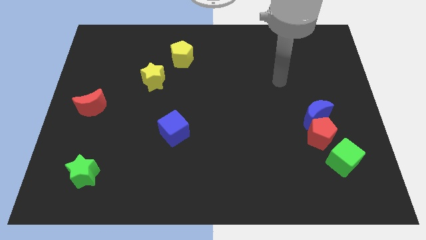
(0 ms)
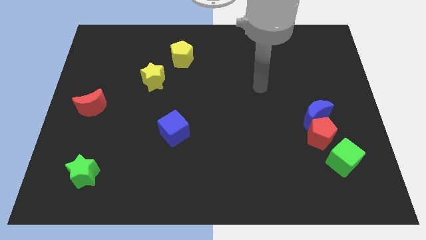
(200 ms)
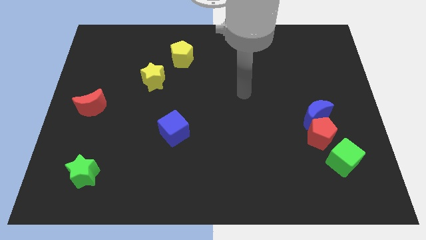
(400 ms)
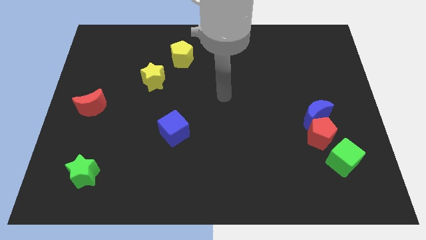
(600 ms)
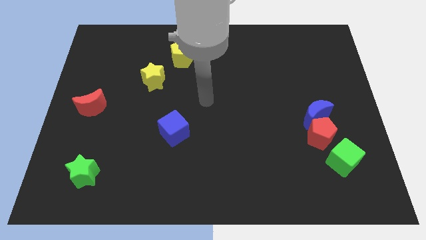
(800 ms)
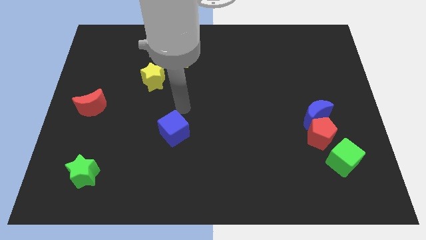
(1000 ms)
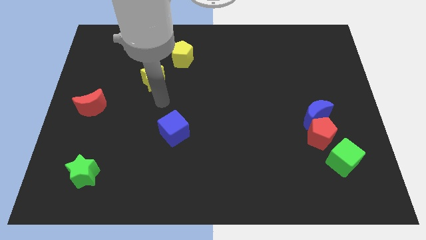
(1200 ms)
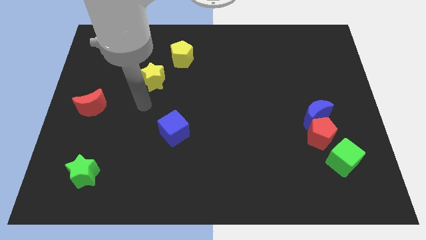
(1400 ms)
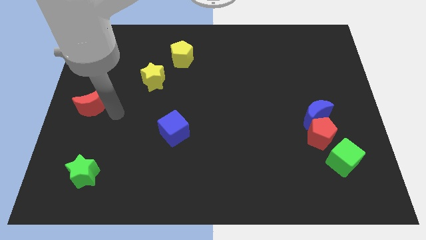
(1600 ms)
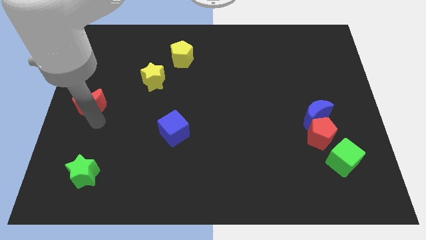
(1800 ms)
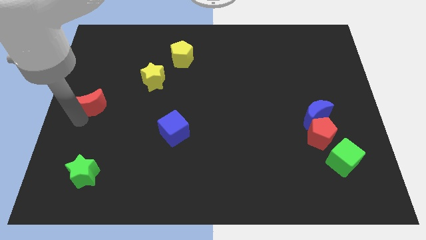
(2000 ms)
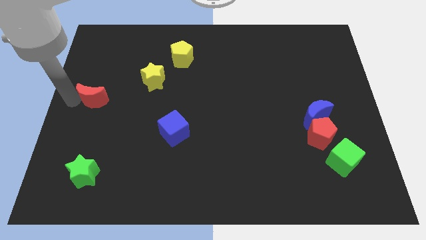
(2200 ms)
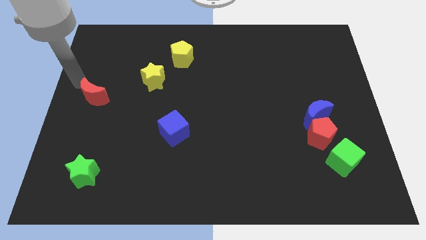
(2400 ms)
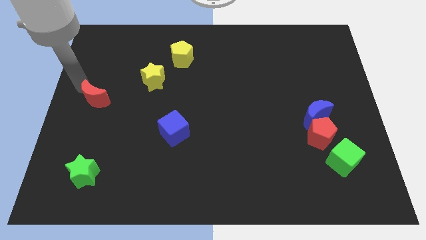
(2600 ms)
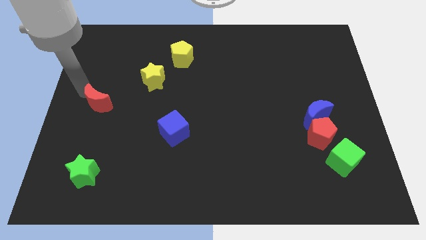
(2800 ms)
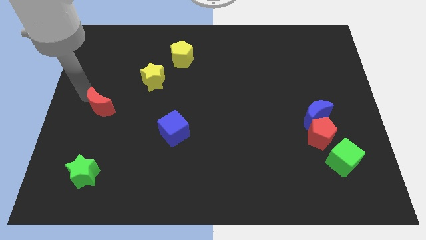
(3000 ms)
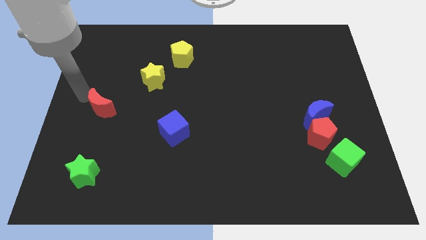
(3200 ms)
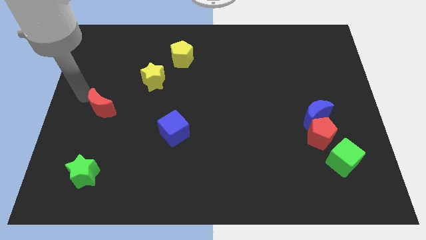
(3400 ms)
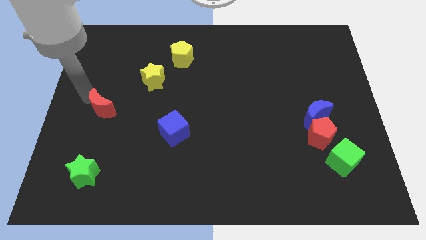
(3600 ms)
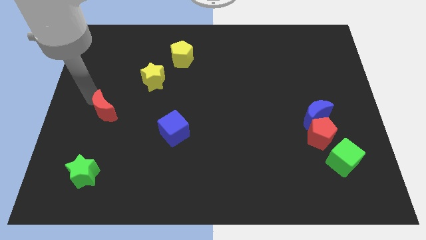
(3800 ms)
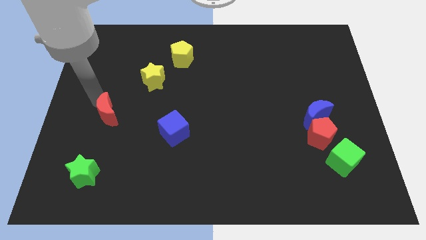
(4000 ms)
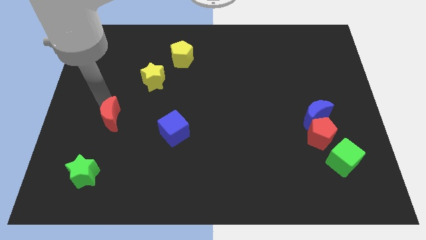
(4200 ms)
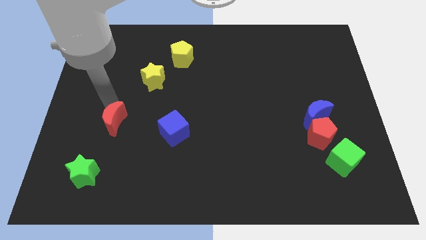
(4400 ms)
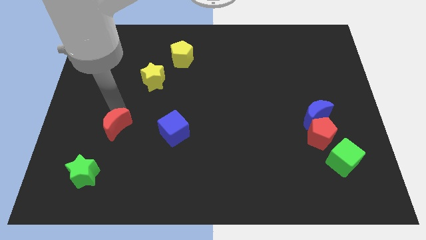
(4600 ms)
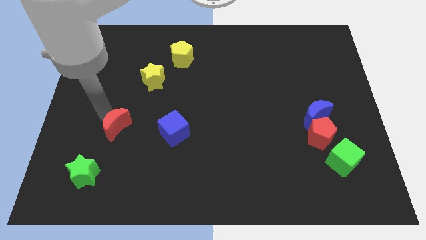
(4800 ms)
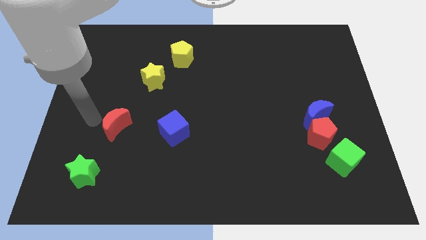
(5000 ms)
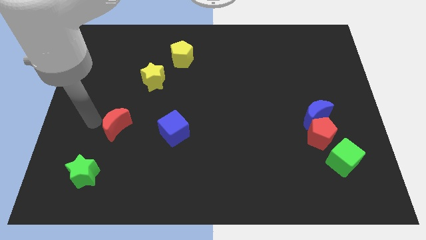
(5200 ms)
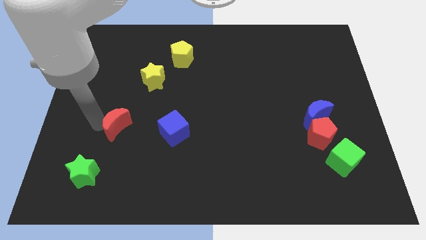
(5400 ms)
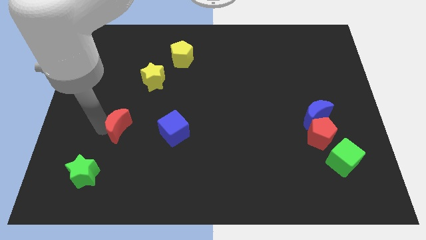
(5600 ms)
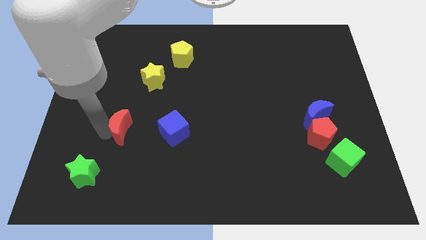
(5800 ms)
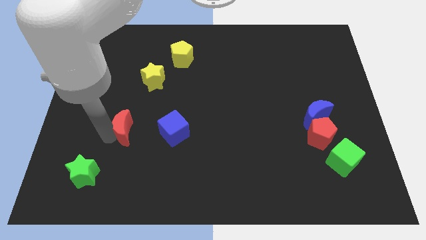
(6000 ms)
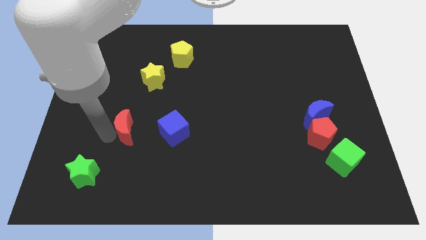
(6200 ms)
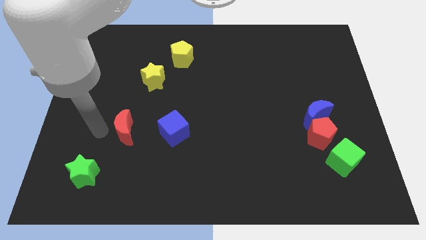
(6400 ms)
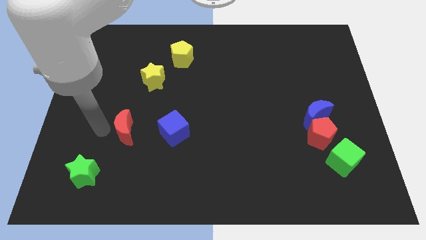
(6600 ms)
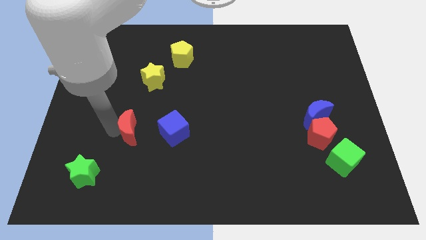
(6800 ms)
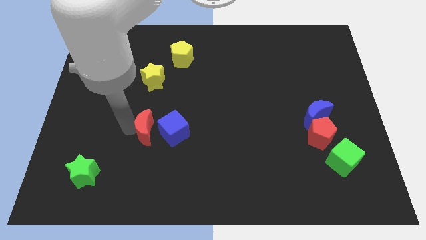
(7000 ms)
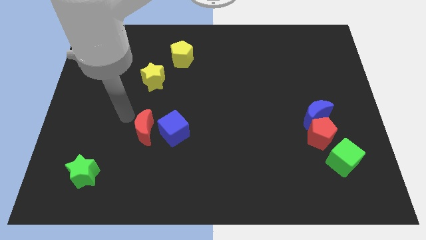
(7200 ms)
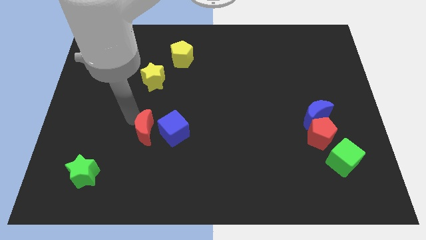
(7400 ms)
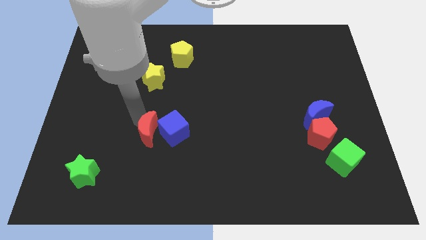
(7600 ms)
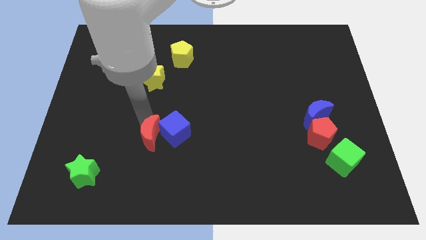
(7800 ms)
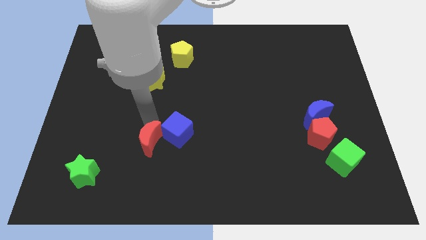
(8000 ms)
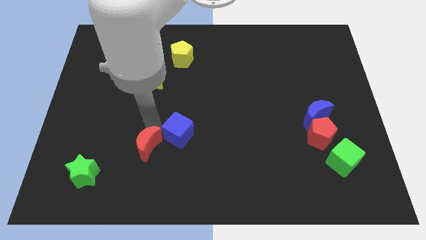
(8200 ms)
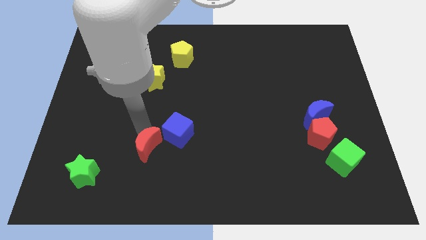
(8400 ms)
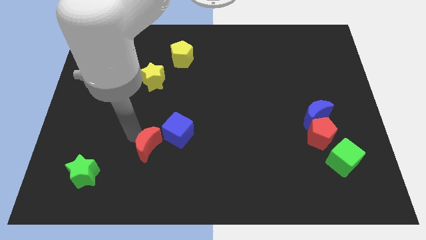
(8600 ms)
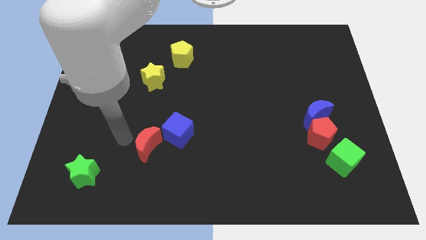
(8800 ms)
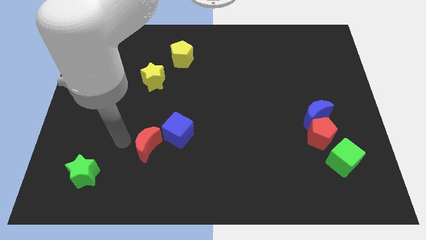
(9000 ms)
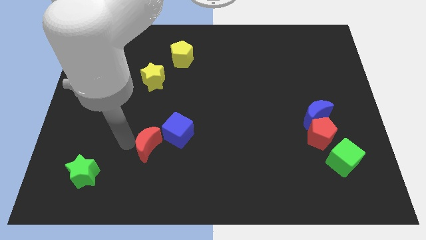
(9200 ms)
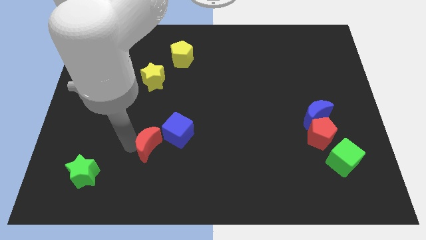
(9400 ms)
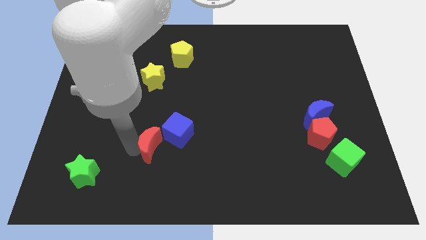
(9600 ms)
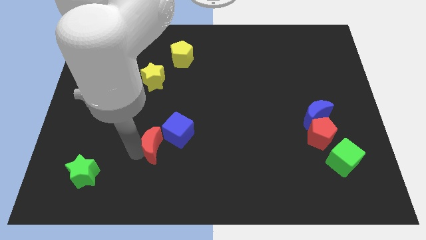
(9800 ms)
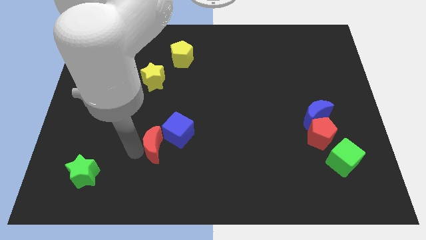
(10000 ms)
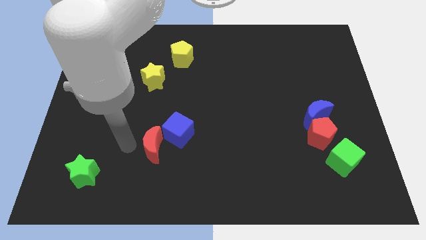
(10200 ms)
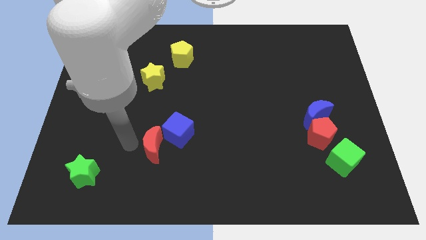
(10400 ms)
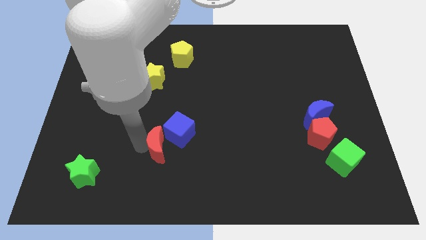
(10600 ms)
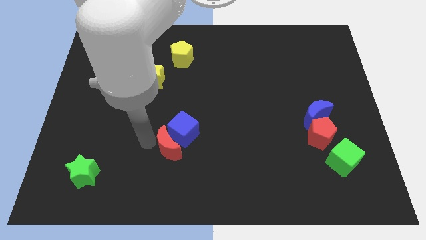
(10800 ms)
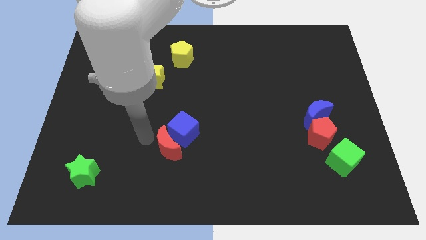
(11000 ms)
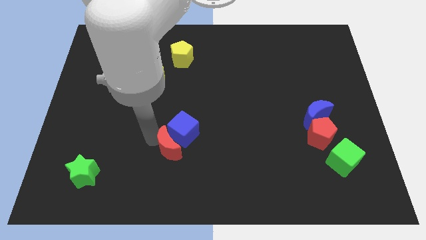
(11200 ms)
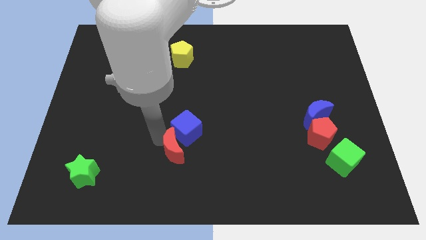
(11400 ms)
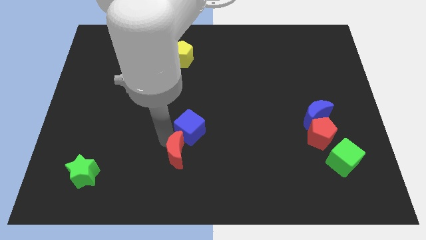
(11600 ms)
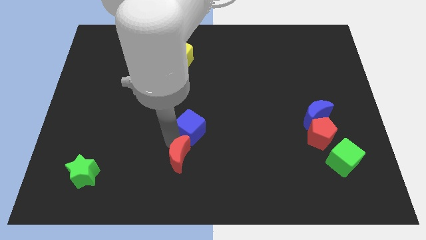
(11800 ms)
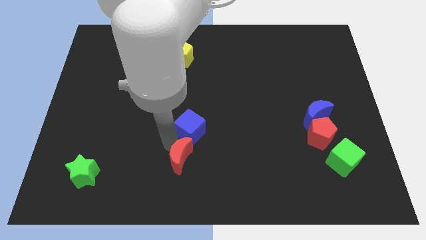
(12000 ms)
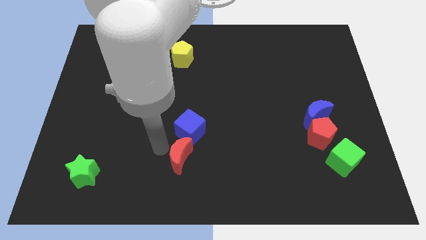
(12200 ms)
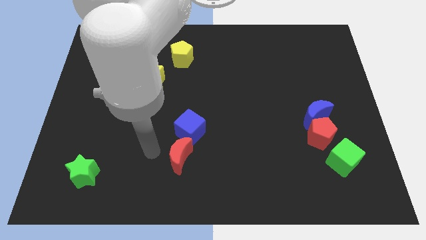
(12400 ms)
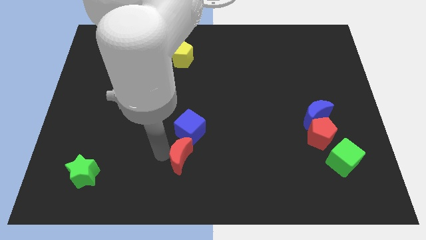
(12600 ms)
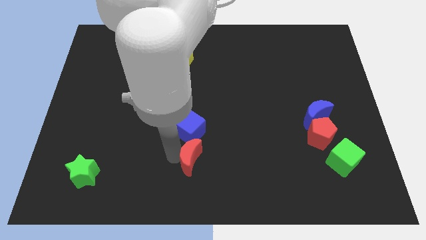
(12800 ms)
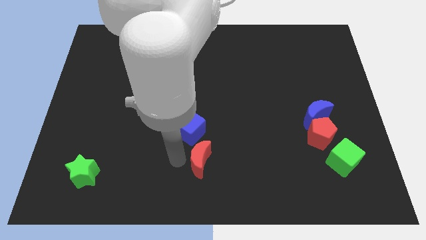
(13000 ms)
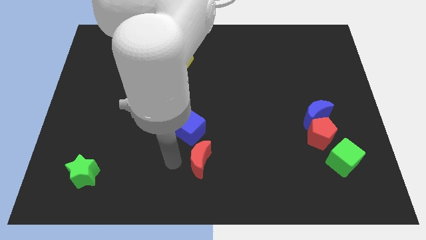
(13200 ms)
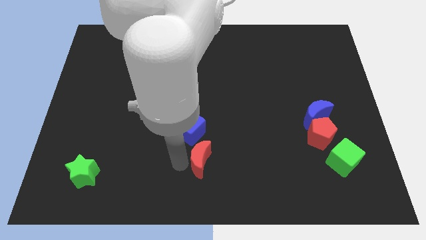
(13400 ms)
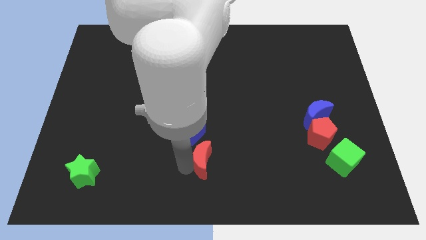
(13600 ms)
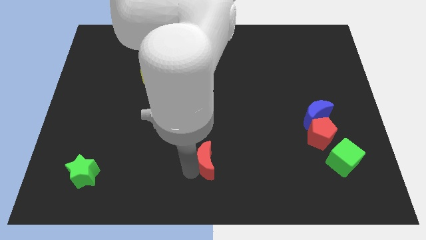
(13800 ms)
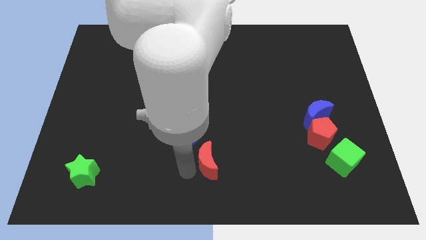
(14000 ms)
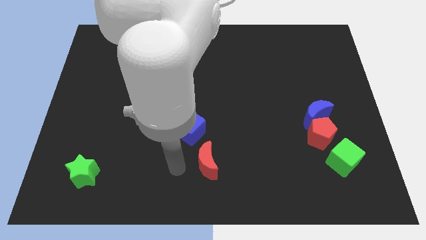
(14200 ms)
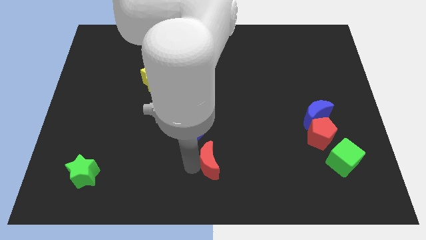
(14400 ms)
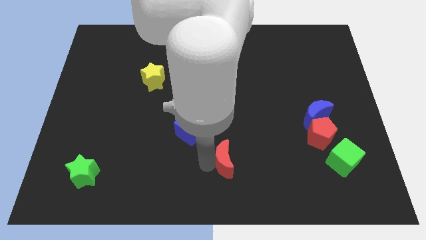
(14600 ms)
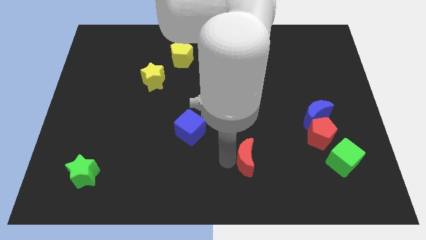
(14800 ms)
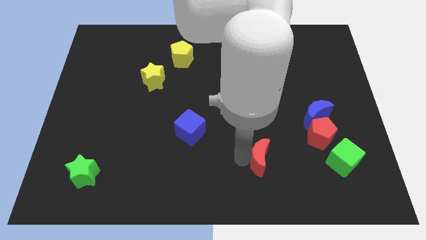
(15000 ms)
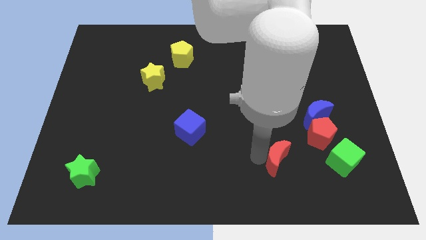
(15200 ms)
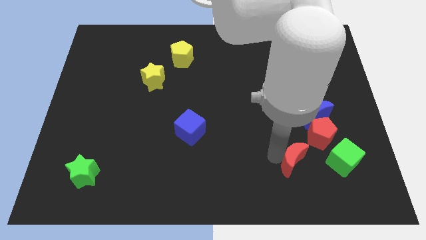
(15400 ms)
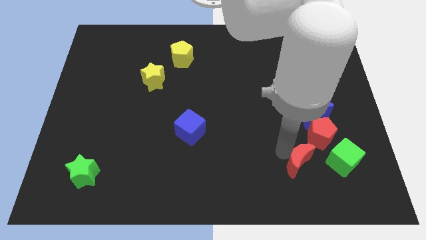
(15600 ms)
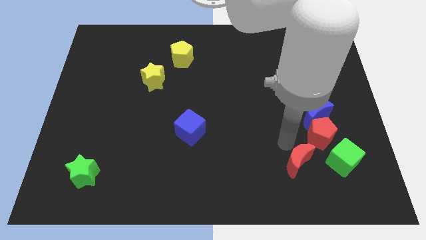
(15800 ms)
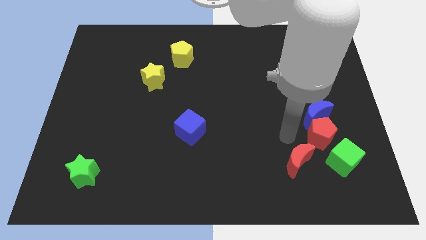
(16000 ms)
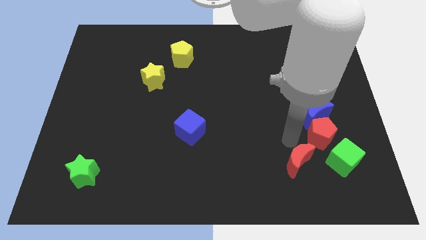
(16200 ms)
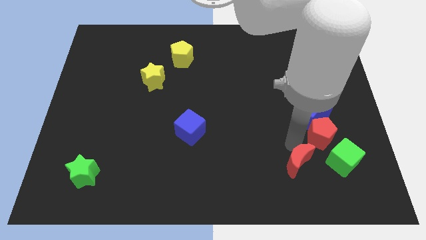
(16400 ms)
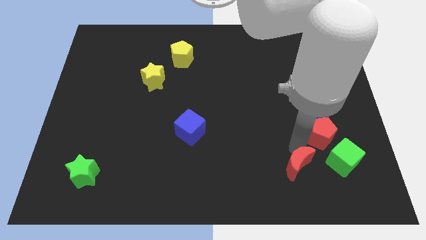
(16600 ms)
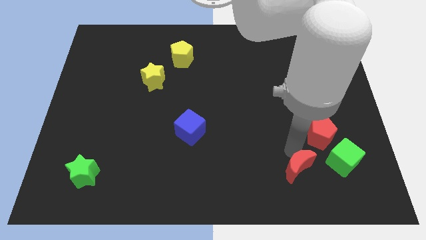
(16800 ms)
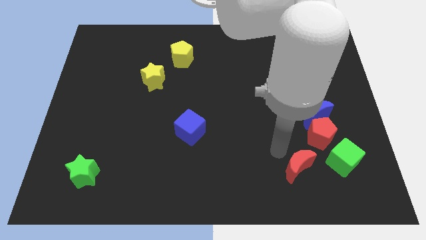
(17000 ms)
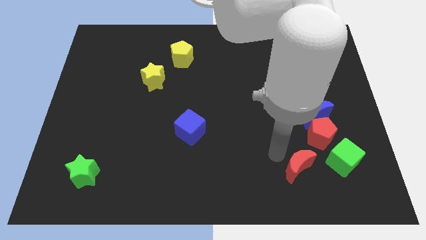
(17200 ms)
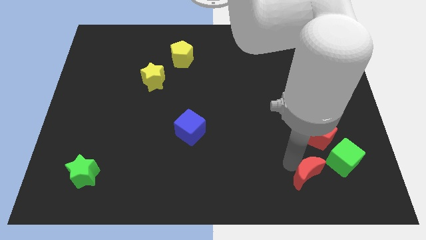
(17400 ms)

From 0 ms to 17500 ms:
push the red moon to the bottom left side of the green cube

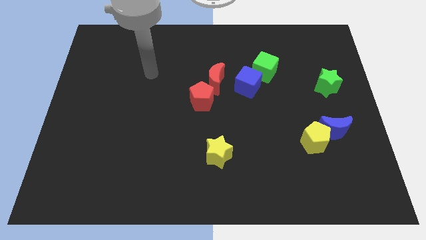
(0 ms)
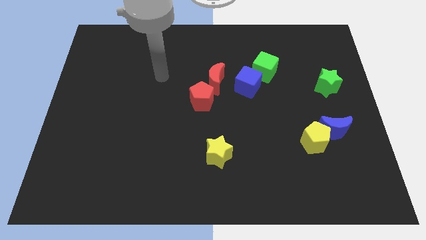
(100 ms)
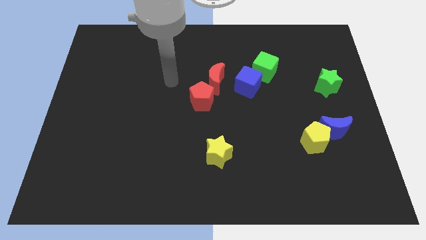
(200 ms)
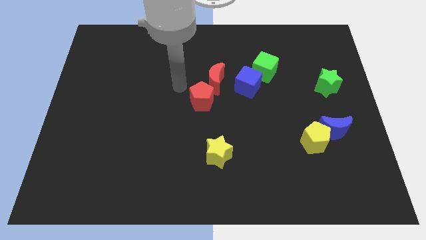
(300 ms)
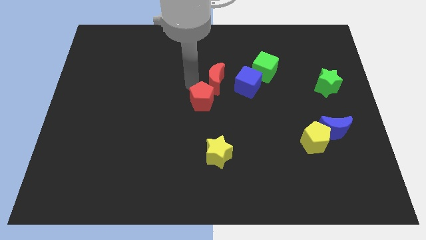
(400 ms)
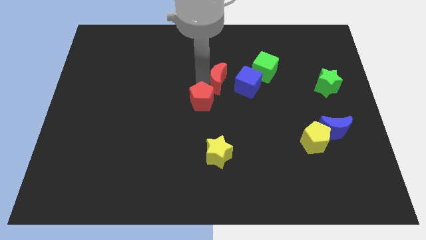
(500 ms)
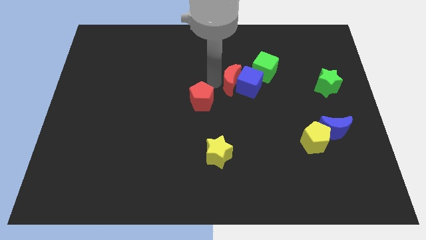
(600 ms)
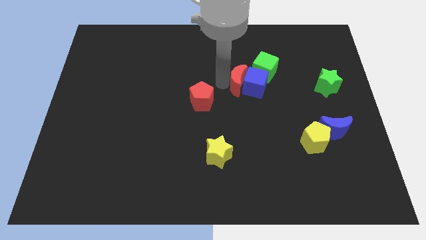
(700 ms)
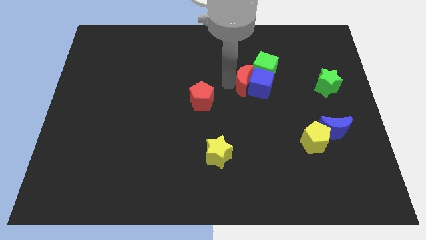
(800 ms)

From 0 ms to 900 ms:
put the blue cube diagonally down and to the right of the green cube
